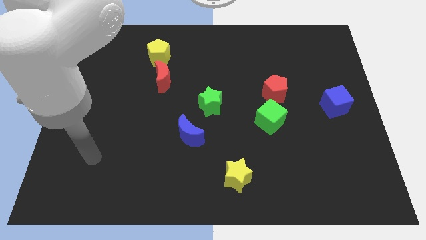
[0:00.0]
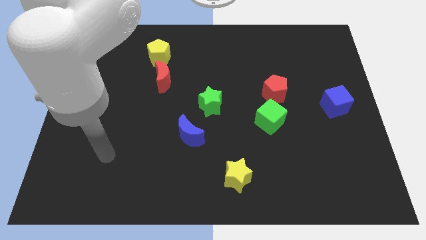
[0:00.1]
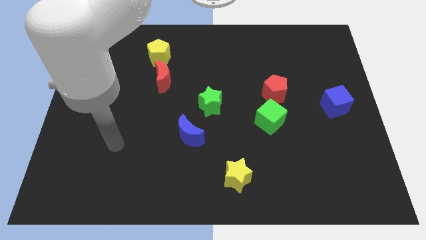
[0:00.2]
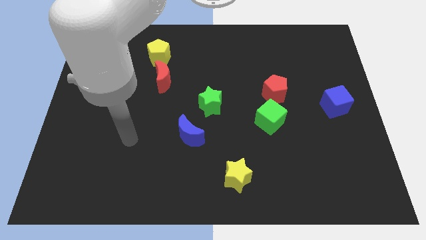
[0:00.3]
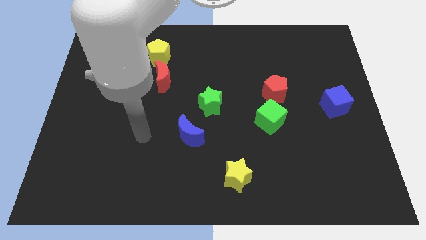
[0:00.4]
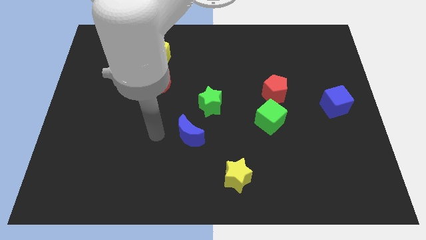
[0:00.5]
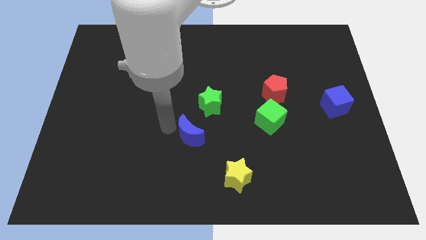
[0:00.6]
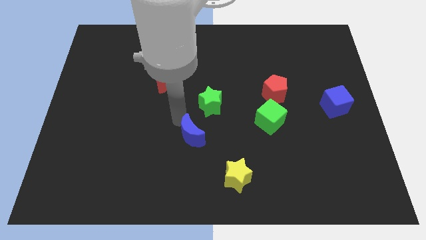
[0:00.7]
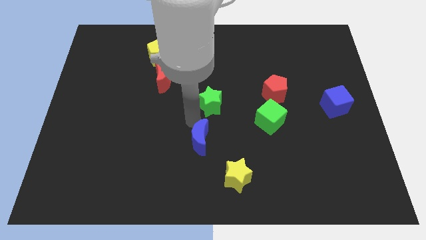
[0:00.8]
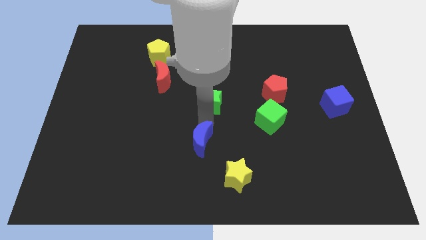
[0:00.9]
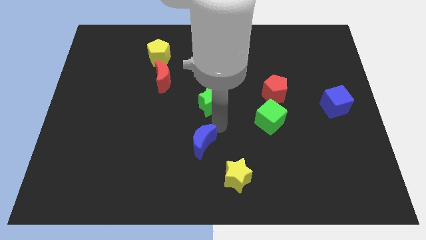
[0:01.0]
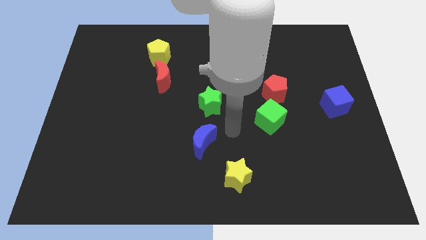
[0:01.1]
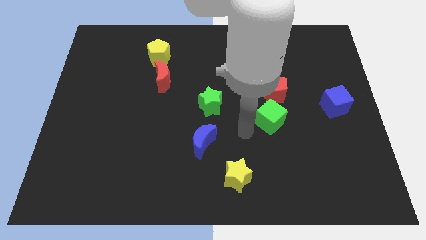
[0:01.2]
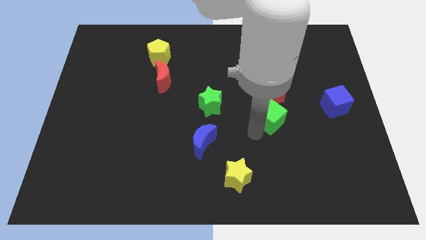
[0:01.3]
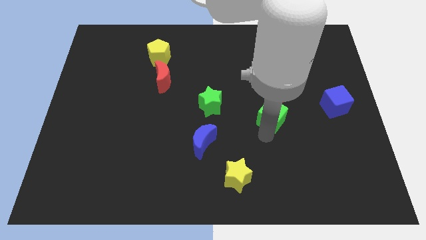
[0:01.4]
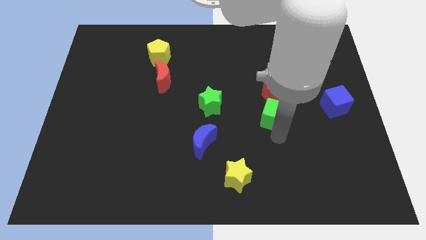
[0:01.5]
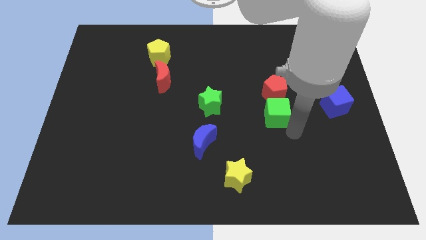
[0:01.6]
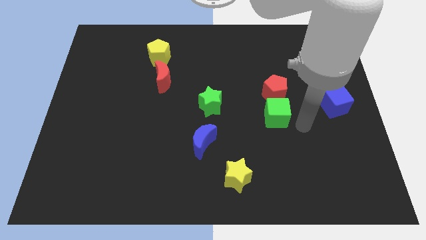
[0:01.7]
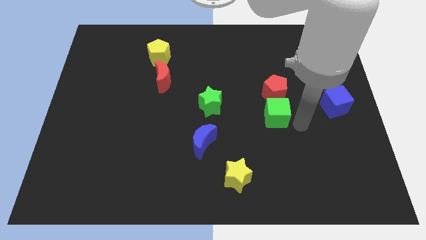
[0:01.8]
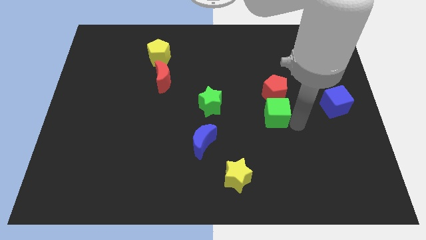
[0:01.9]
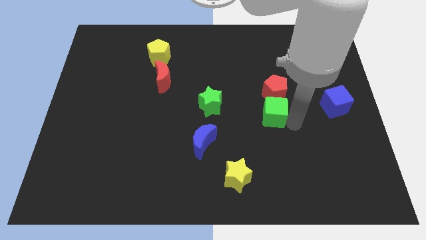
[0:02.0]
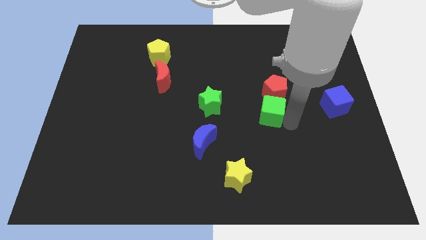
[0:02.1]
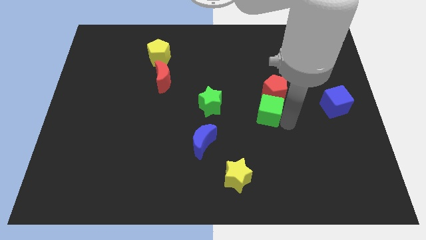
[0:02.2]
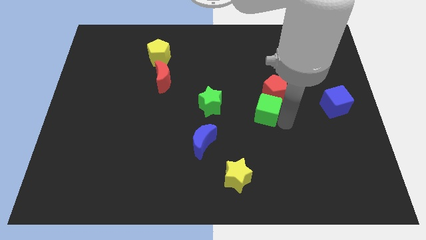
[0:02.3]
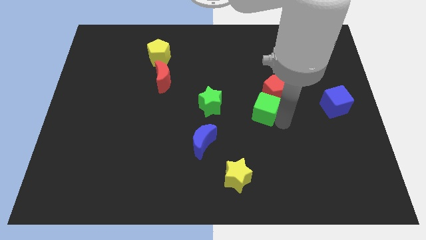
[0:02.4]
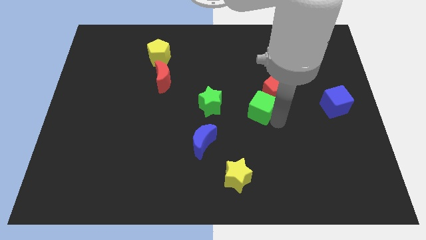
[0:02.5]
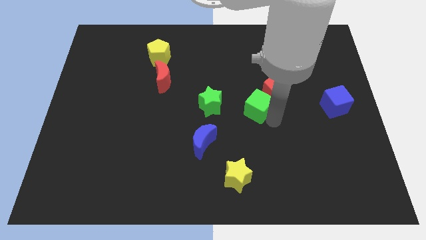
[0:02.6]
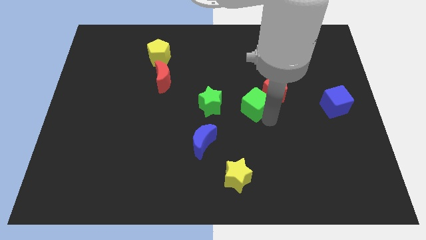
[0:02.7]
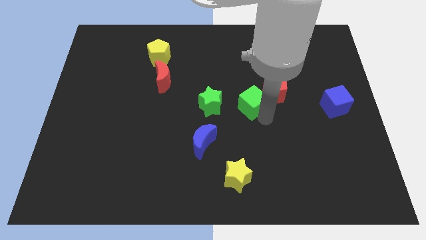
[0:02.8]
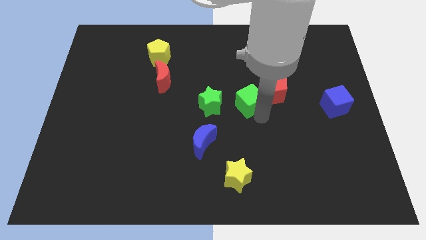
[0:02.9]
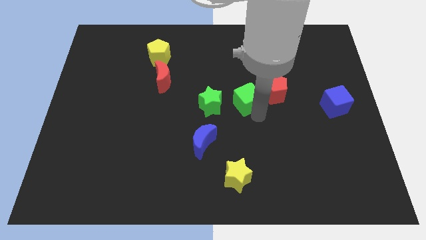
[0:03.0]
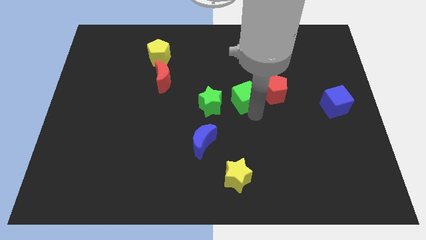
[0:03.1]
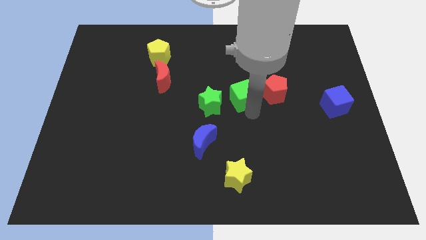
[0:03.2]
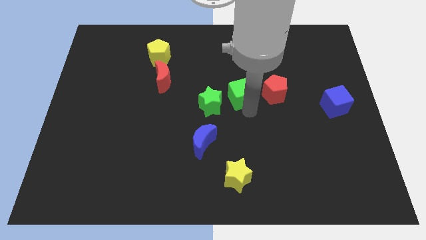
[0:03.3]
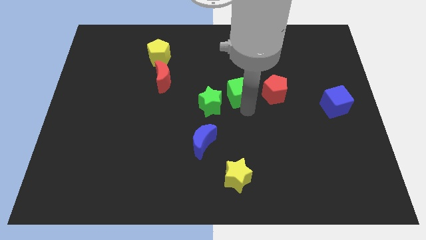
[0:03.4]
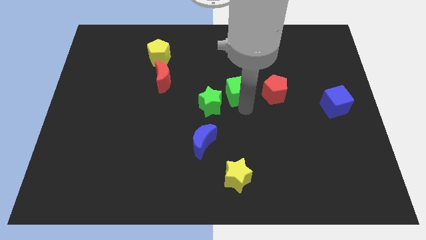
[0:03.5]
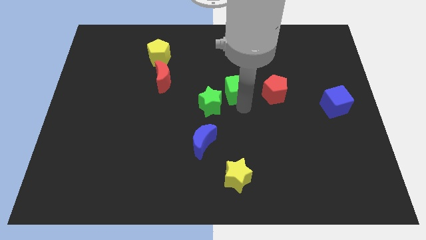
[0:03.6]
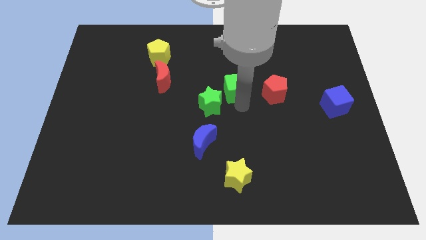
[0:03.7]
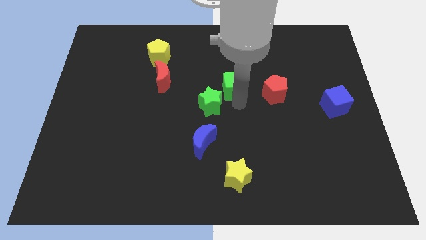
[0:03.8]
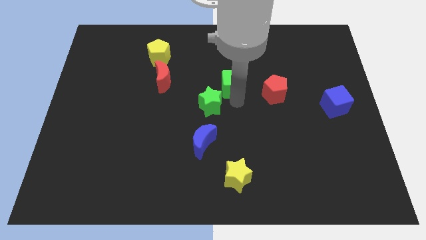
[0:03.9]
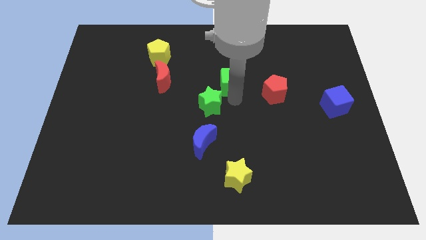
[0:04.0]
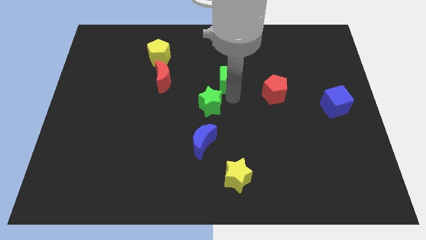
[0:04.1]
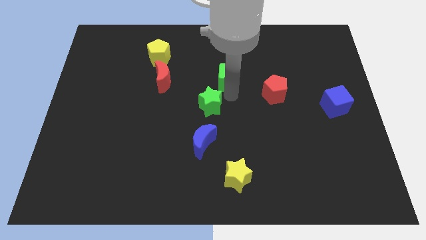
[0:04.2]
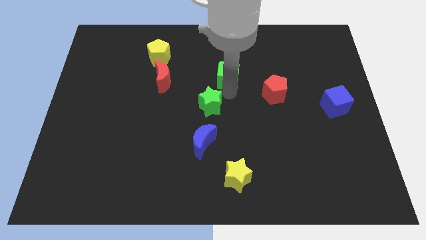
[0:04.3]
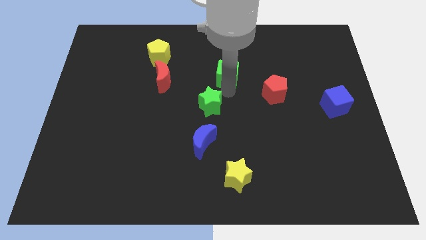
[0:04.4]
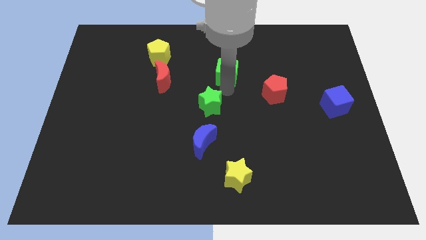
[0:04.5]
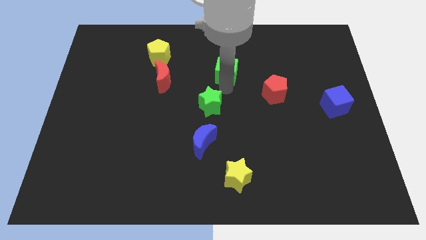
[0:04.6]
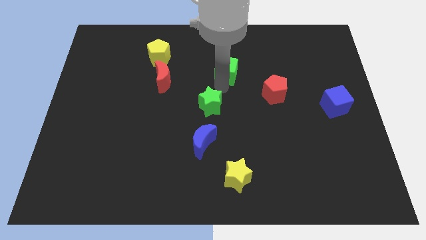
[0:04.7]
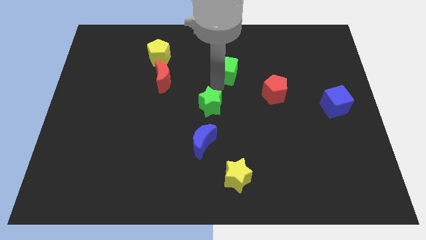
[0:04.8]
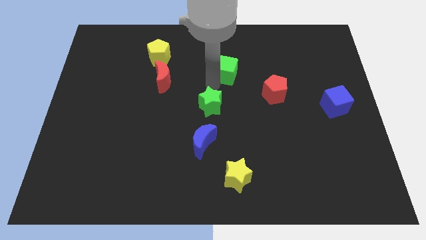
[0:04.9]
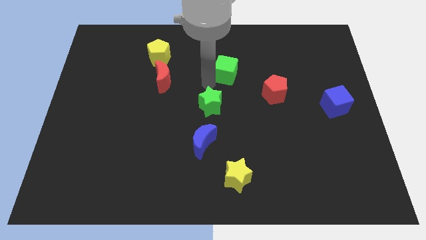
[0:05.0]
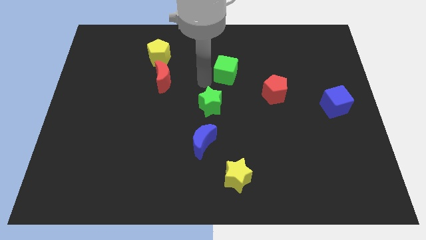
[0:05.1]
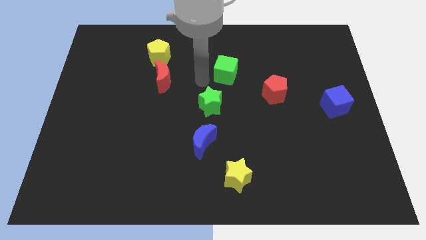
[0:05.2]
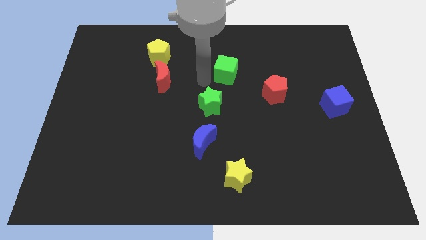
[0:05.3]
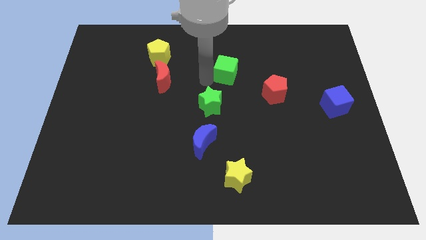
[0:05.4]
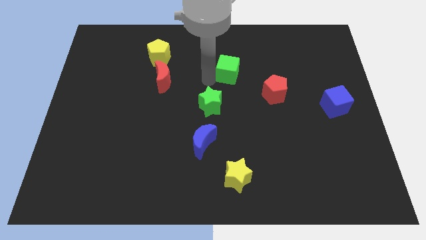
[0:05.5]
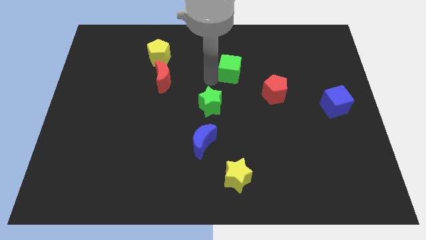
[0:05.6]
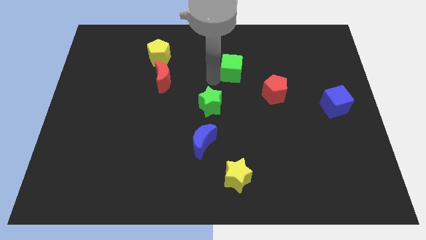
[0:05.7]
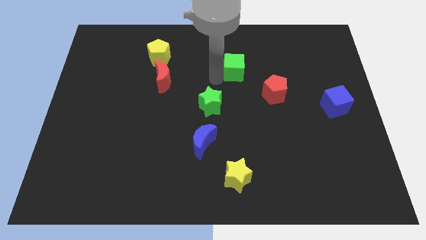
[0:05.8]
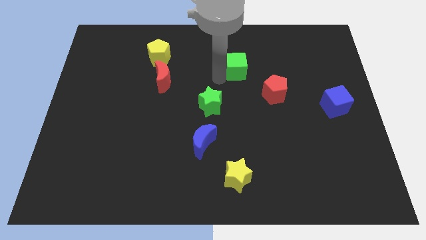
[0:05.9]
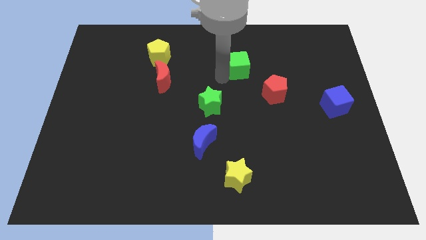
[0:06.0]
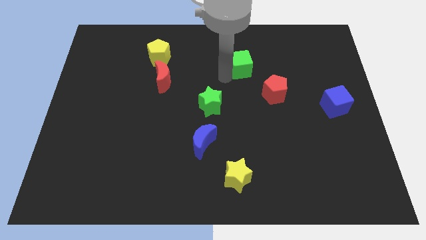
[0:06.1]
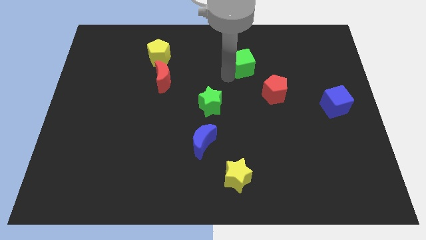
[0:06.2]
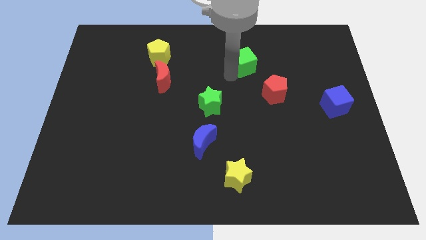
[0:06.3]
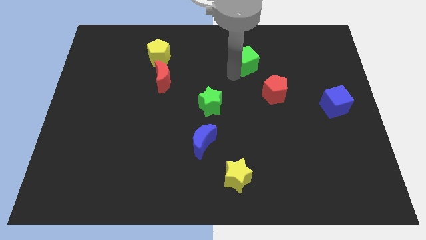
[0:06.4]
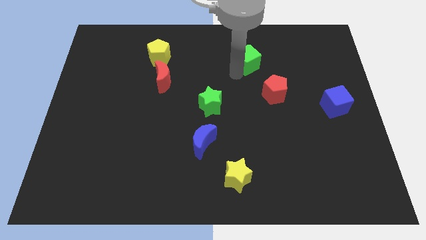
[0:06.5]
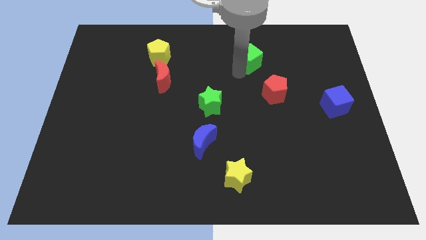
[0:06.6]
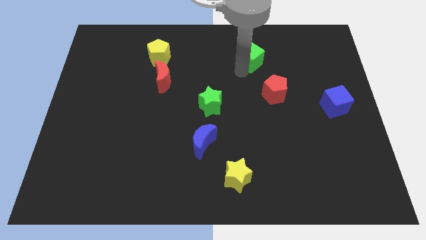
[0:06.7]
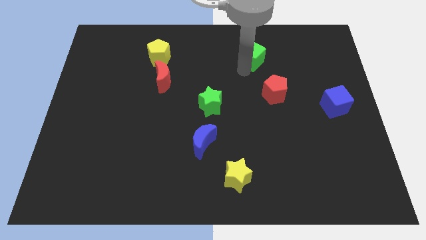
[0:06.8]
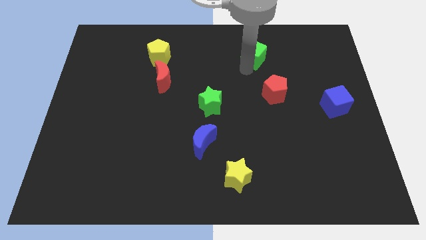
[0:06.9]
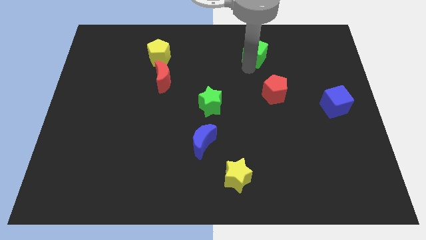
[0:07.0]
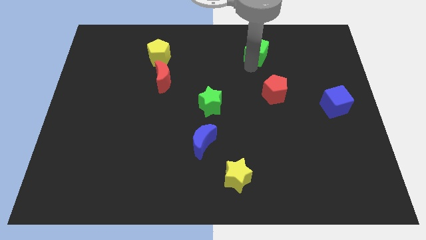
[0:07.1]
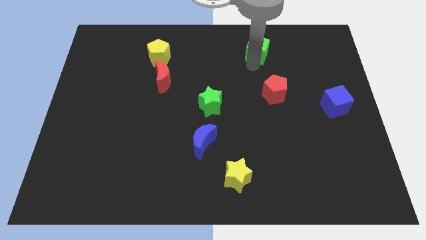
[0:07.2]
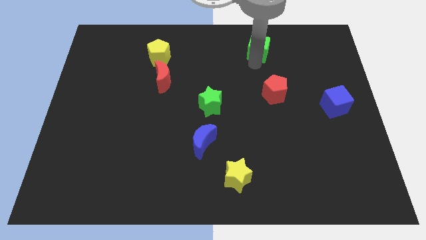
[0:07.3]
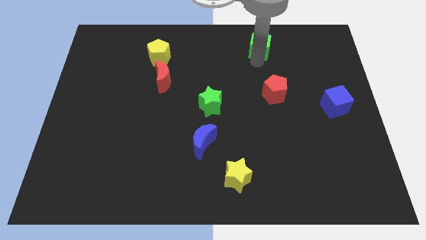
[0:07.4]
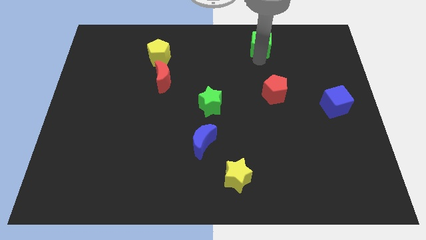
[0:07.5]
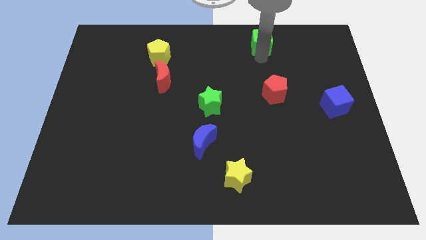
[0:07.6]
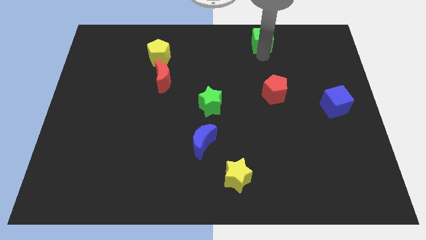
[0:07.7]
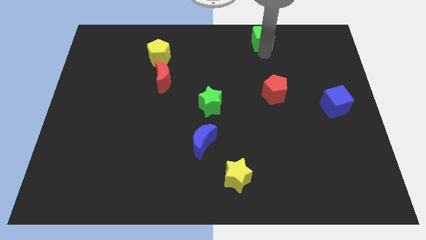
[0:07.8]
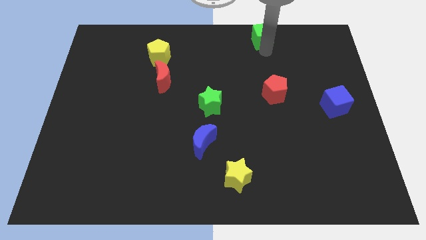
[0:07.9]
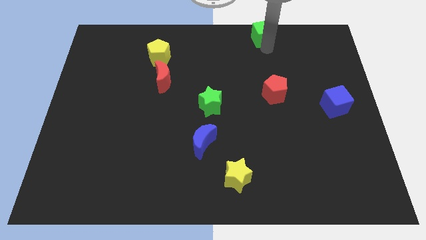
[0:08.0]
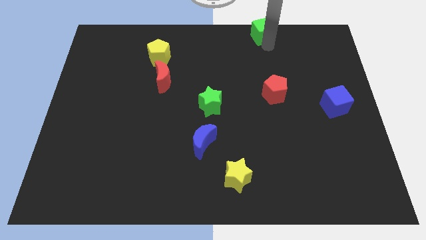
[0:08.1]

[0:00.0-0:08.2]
put the green cube to the towards your base
